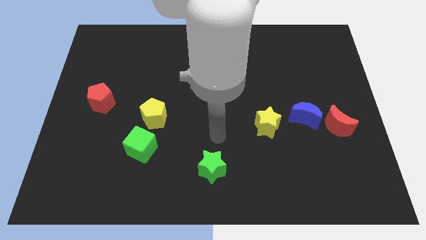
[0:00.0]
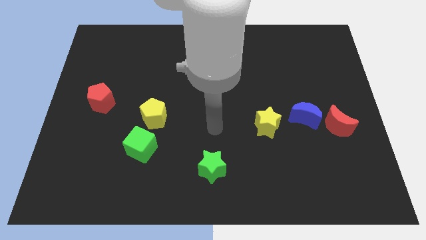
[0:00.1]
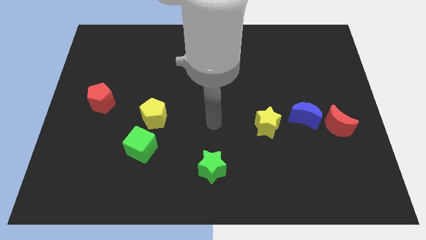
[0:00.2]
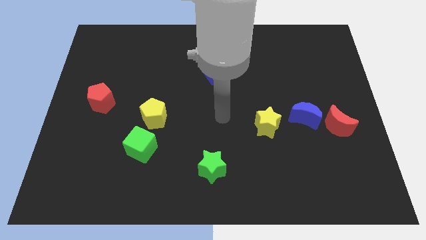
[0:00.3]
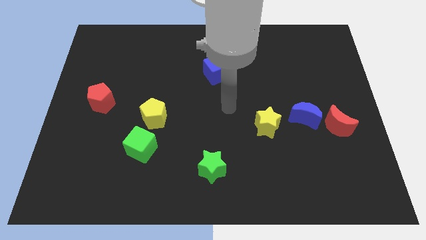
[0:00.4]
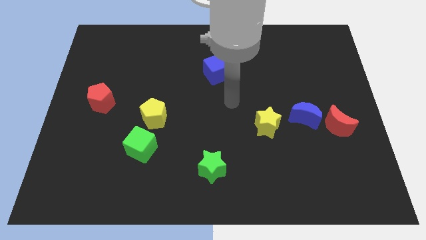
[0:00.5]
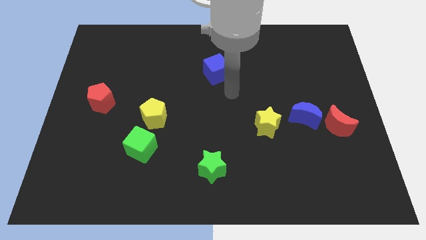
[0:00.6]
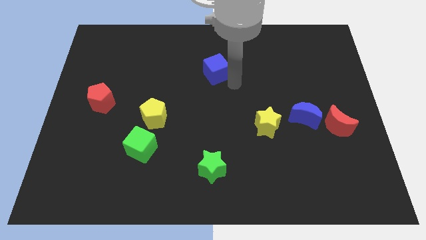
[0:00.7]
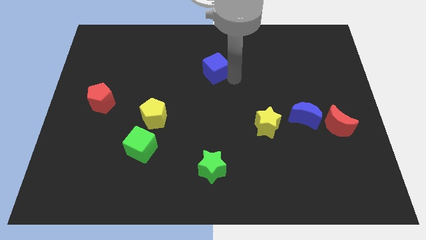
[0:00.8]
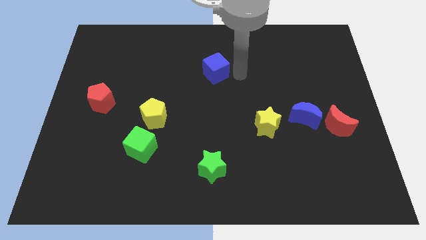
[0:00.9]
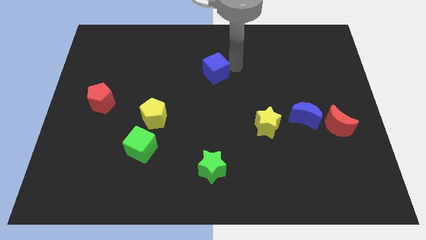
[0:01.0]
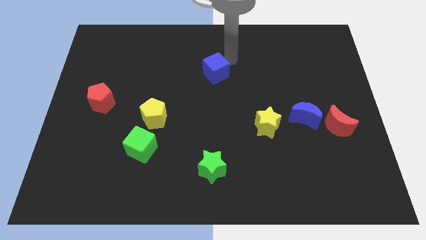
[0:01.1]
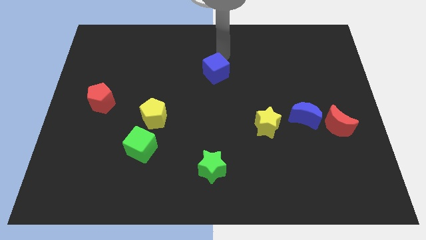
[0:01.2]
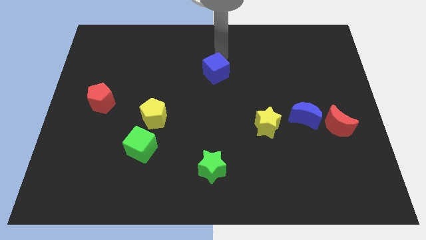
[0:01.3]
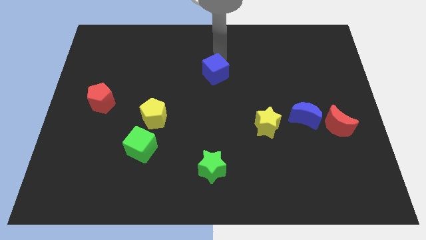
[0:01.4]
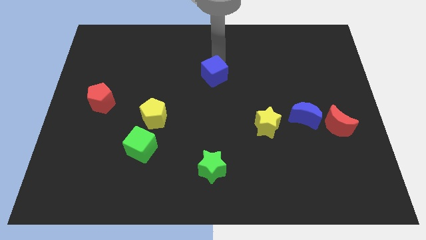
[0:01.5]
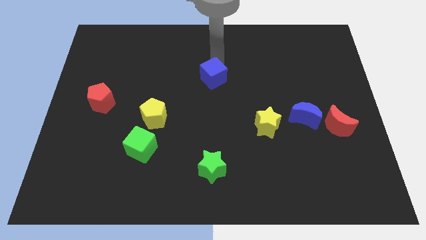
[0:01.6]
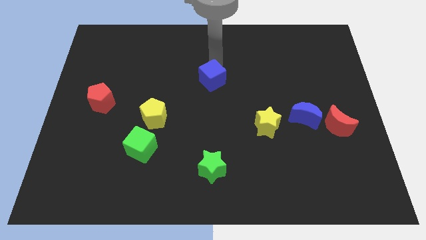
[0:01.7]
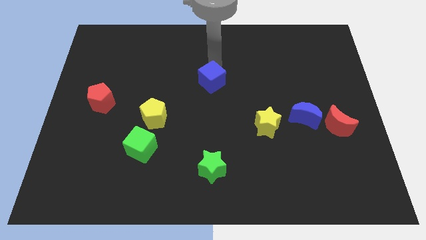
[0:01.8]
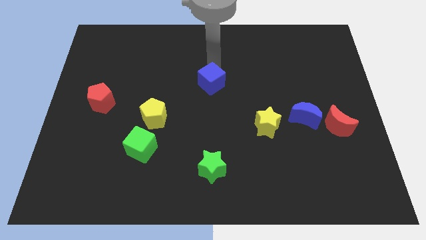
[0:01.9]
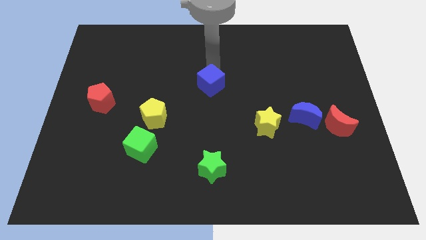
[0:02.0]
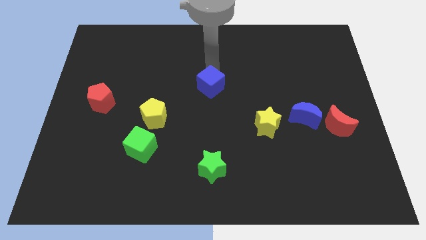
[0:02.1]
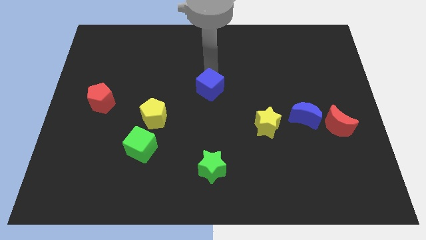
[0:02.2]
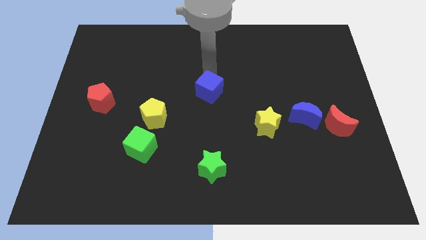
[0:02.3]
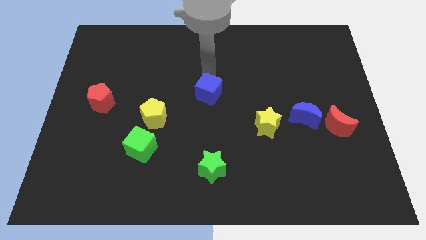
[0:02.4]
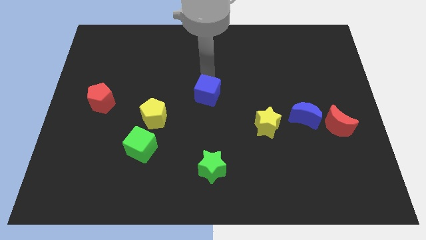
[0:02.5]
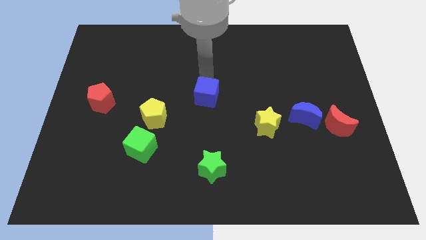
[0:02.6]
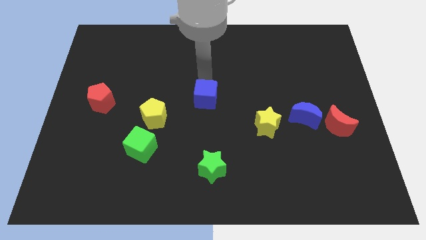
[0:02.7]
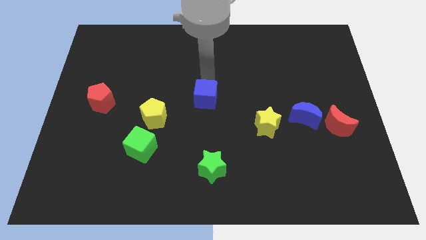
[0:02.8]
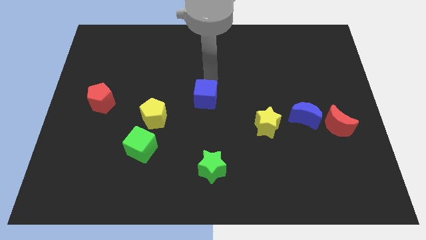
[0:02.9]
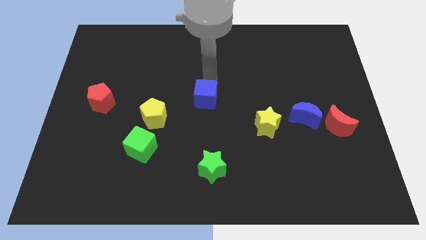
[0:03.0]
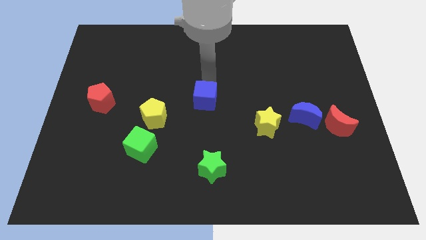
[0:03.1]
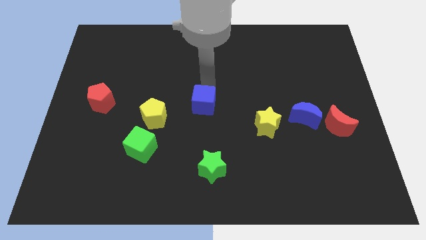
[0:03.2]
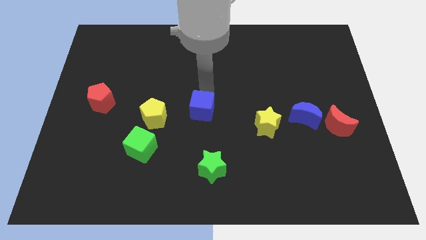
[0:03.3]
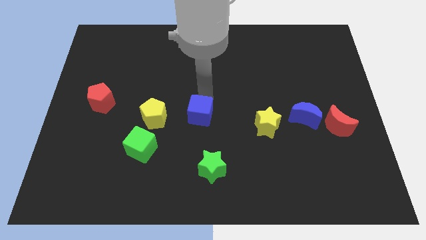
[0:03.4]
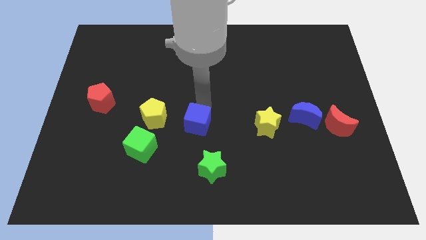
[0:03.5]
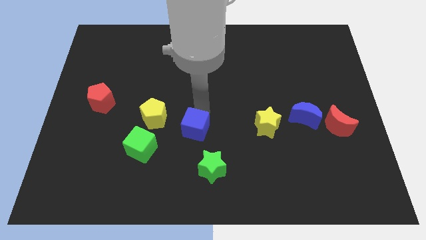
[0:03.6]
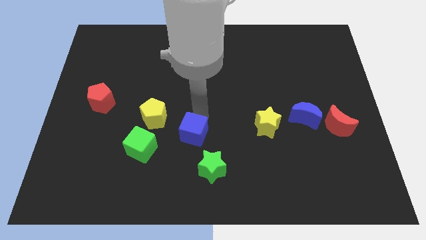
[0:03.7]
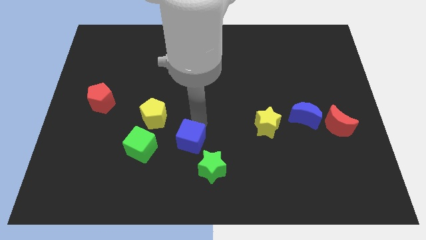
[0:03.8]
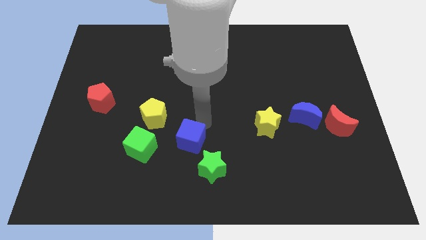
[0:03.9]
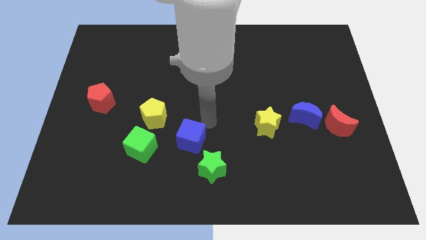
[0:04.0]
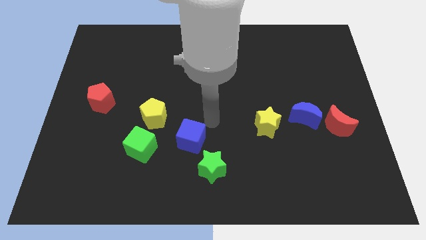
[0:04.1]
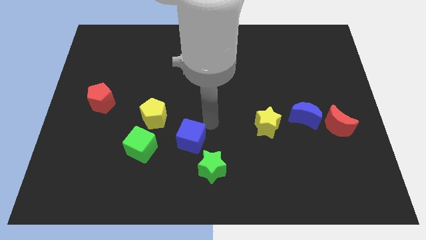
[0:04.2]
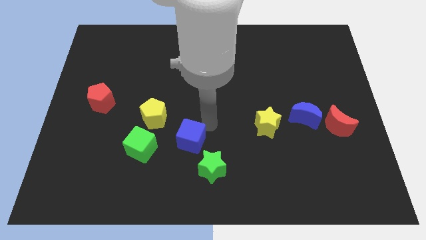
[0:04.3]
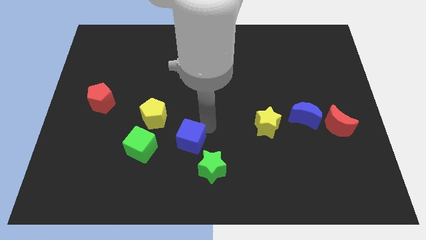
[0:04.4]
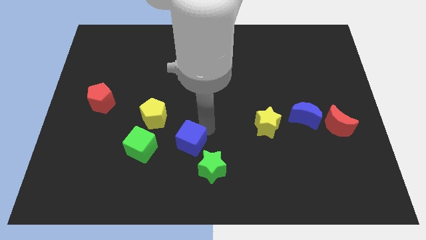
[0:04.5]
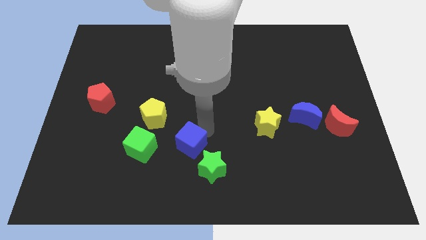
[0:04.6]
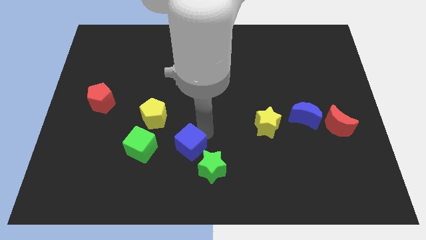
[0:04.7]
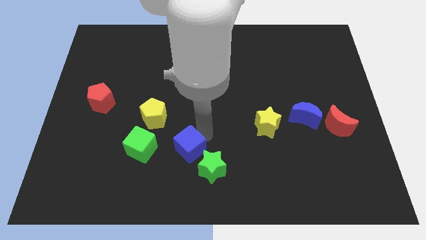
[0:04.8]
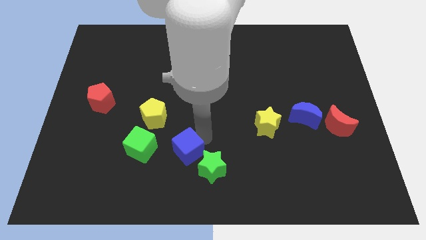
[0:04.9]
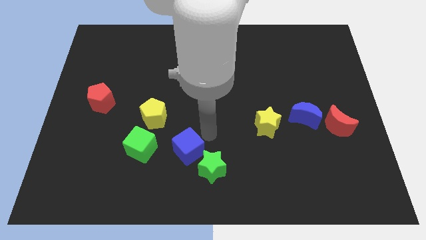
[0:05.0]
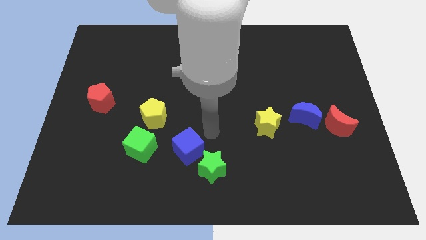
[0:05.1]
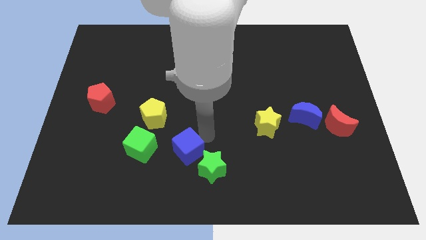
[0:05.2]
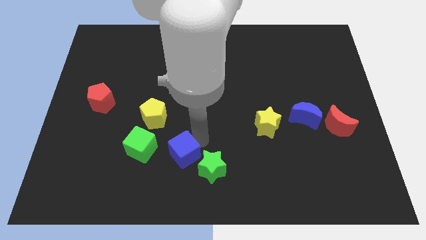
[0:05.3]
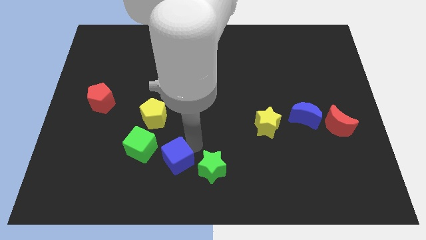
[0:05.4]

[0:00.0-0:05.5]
move the blue cube to the bottom right side of the green cube
